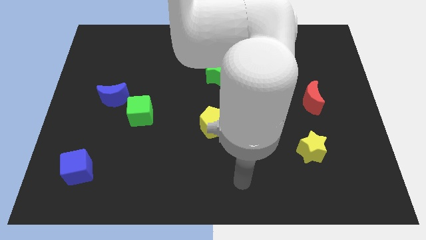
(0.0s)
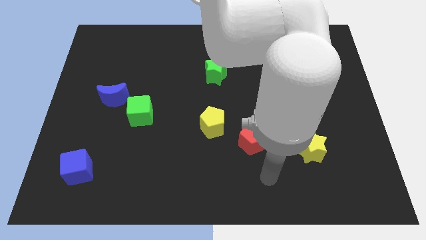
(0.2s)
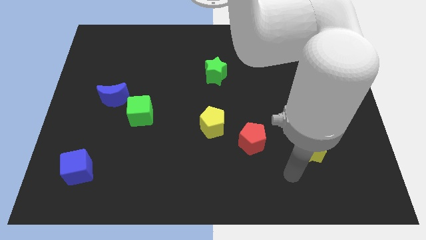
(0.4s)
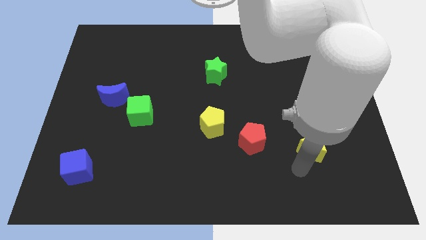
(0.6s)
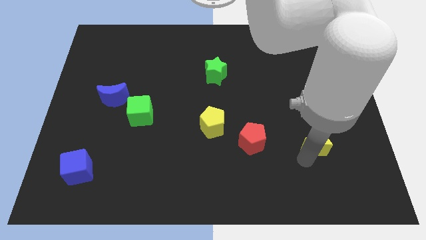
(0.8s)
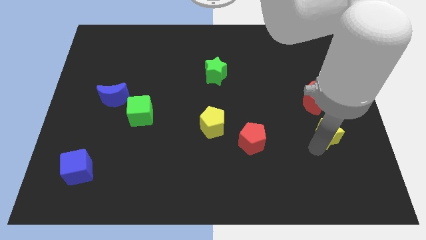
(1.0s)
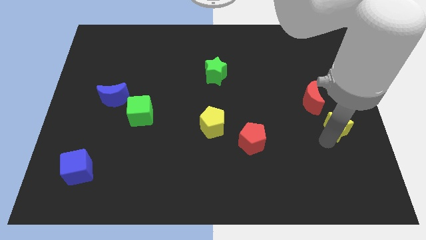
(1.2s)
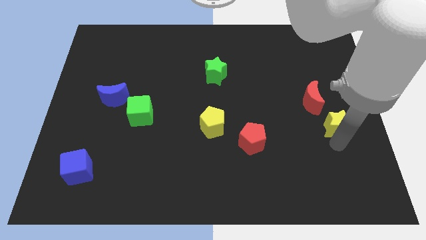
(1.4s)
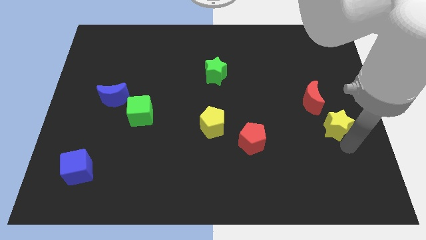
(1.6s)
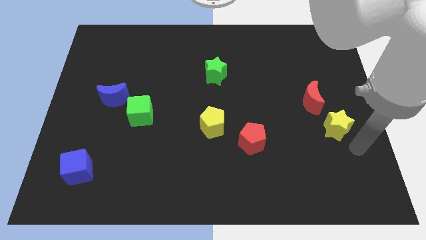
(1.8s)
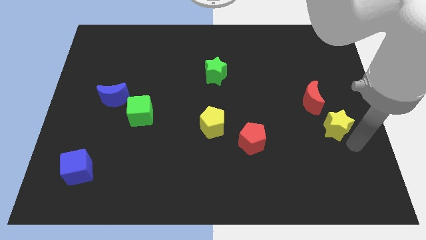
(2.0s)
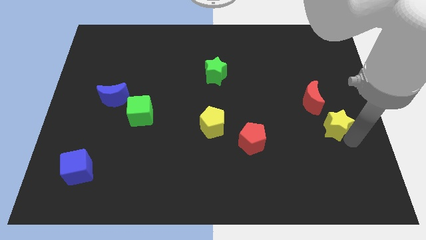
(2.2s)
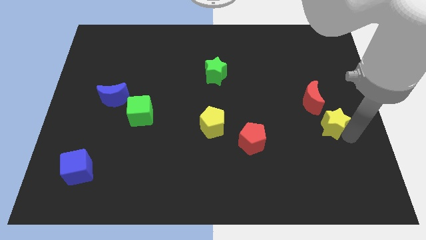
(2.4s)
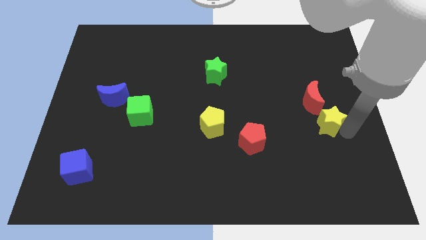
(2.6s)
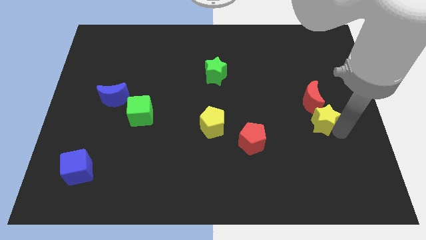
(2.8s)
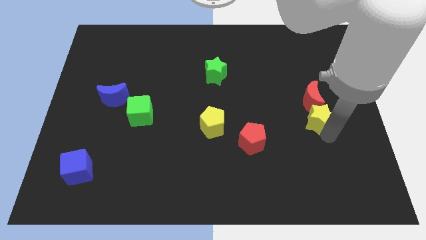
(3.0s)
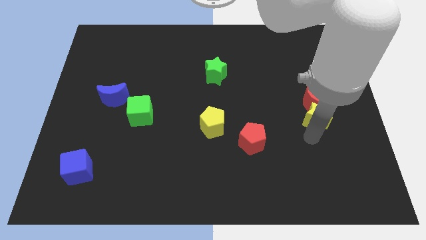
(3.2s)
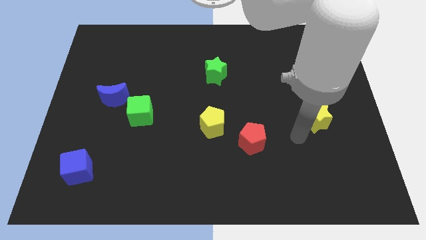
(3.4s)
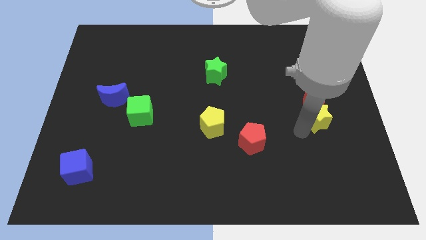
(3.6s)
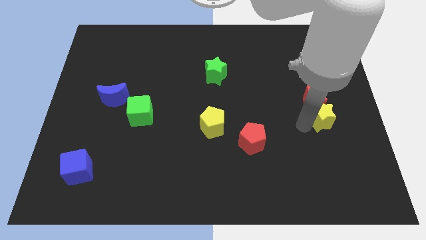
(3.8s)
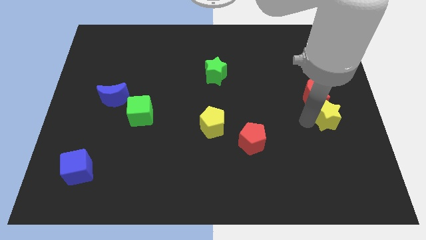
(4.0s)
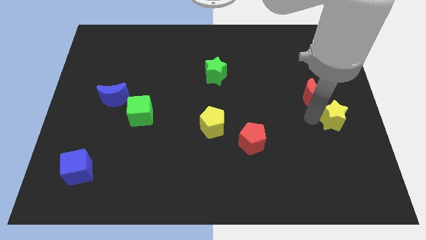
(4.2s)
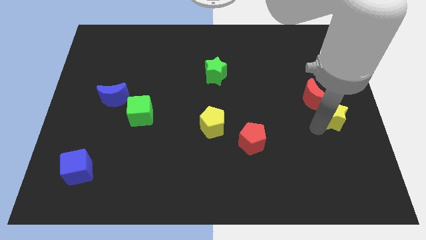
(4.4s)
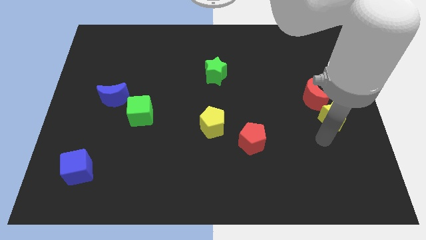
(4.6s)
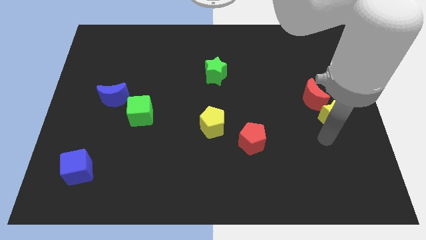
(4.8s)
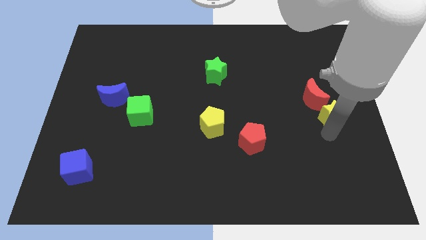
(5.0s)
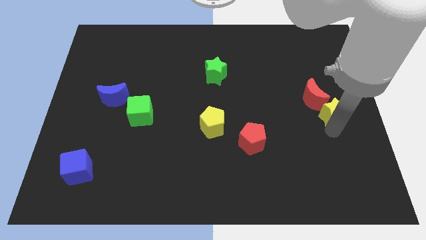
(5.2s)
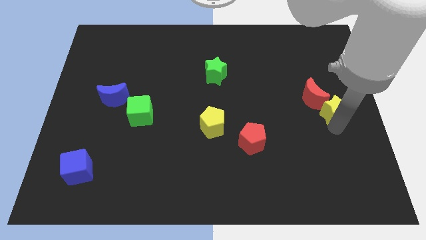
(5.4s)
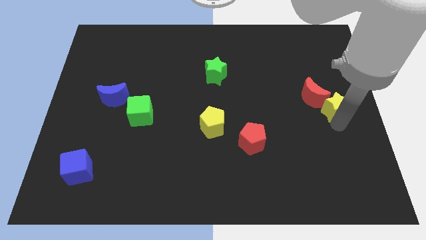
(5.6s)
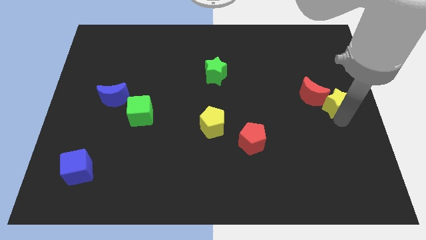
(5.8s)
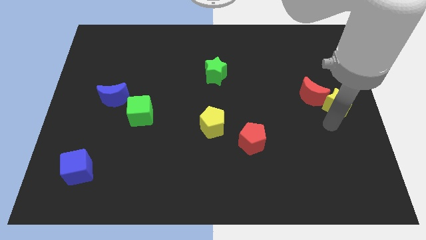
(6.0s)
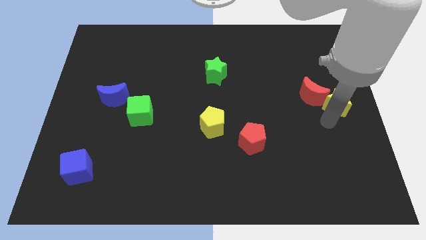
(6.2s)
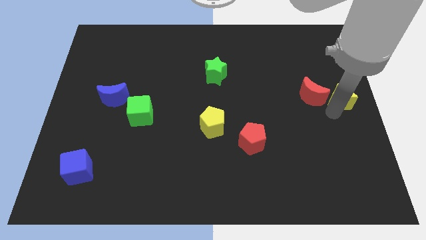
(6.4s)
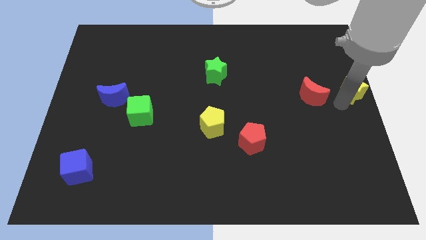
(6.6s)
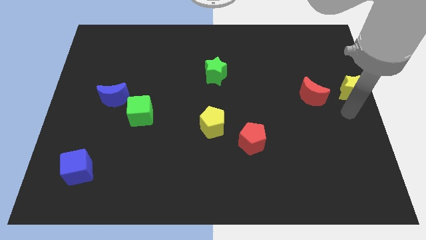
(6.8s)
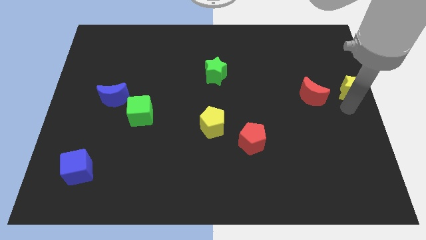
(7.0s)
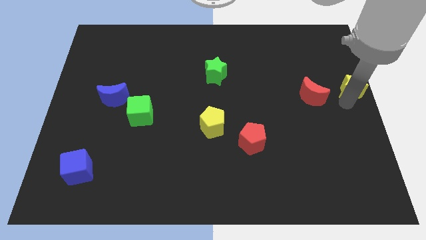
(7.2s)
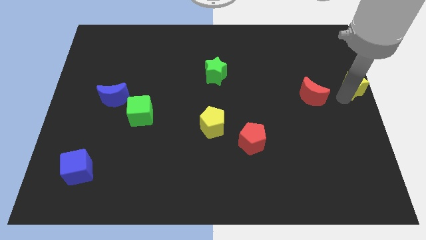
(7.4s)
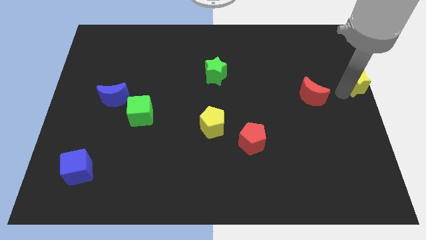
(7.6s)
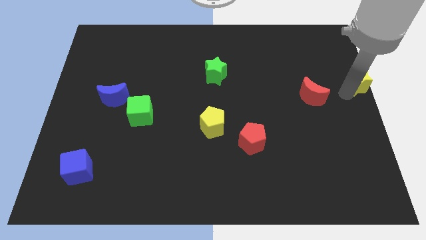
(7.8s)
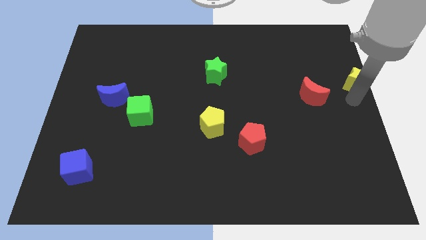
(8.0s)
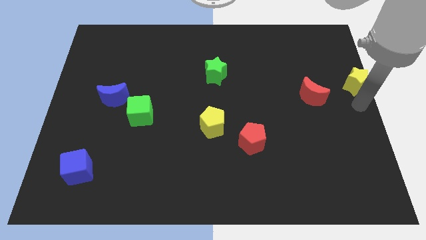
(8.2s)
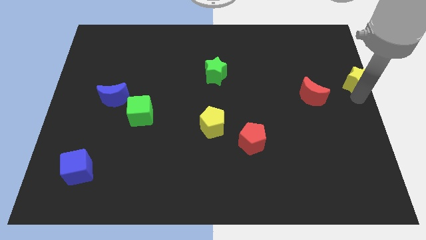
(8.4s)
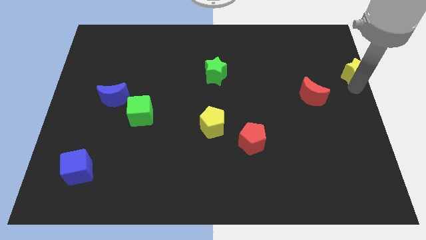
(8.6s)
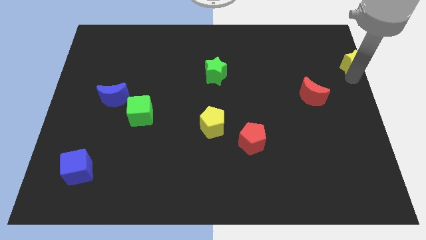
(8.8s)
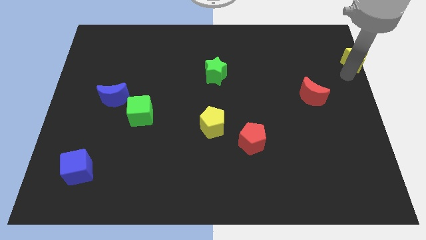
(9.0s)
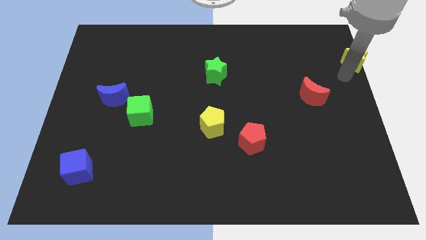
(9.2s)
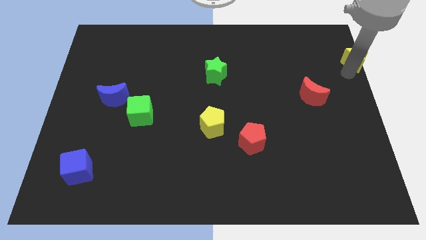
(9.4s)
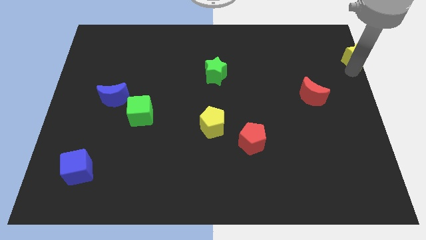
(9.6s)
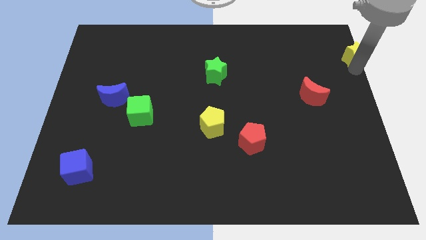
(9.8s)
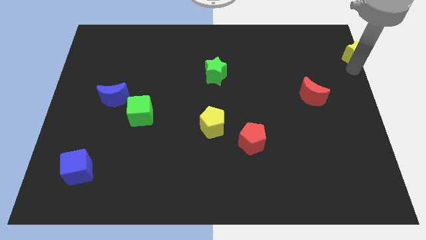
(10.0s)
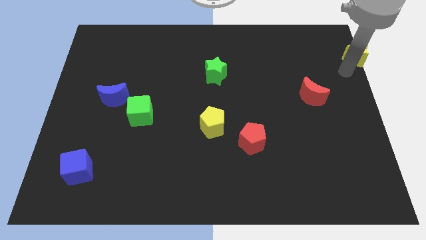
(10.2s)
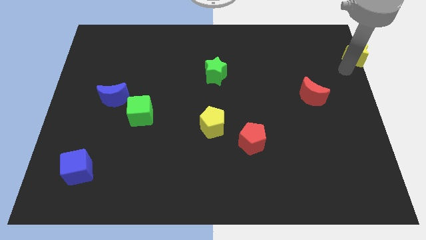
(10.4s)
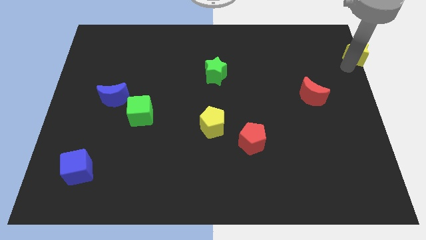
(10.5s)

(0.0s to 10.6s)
push the yellow star to the upper right corner

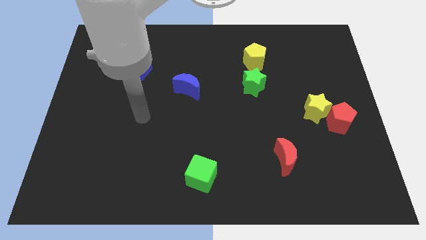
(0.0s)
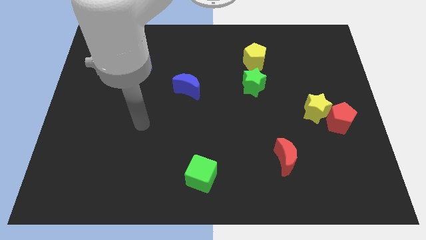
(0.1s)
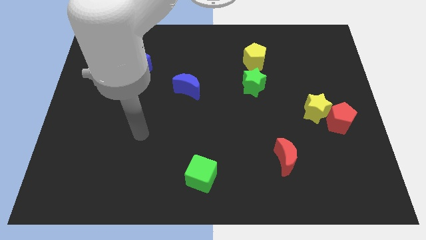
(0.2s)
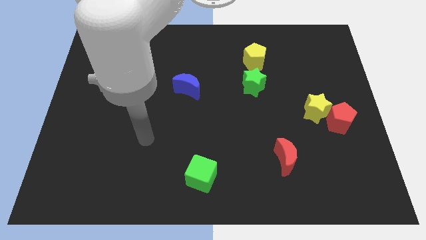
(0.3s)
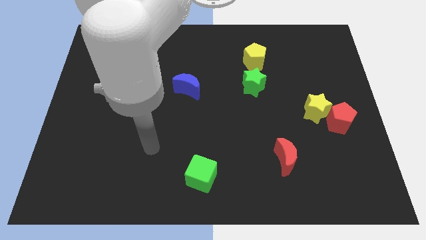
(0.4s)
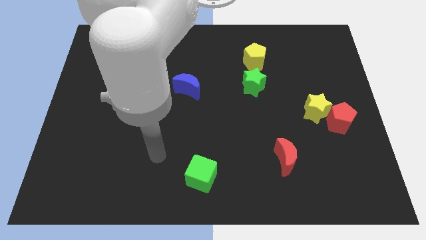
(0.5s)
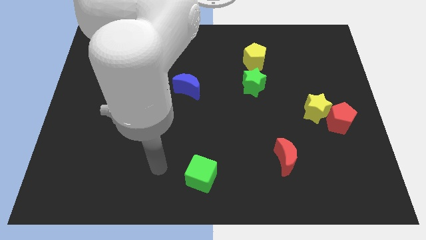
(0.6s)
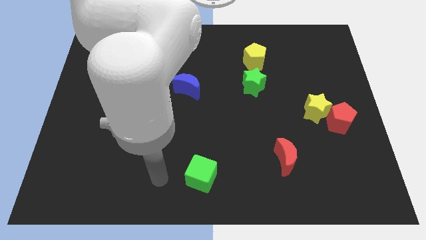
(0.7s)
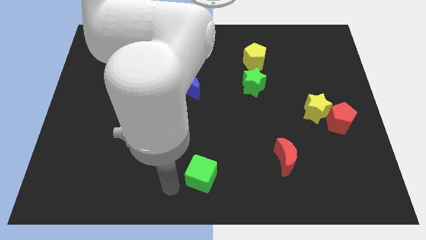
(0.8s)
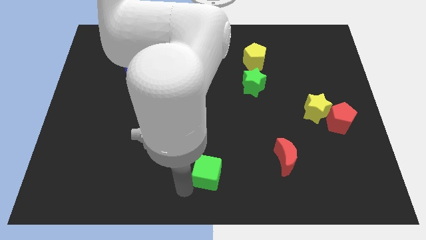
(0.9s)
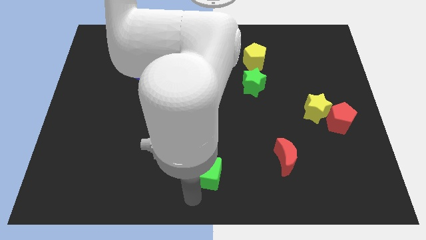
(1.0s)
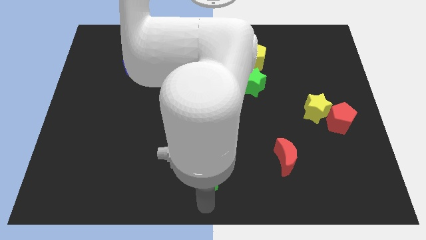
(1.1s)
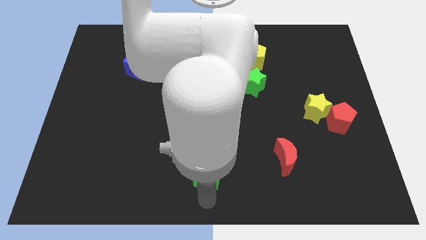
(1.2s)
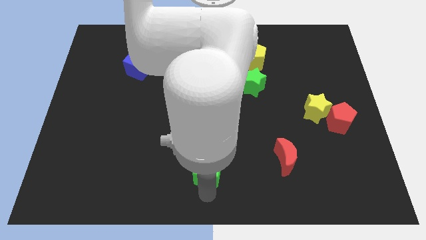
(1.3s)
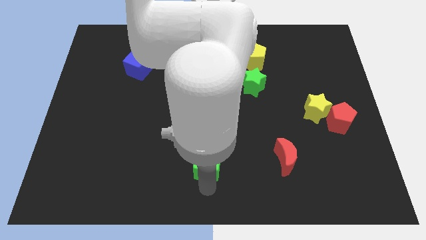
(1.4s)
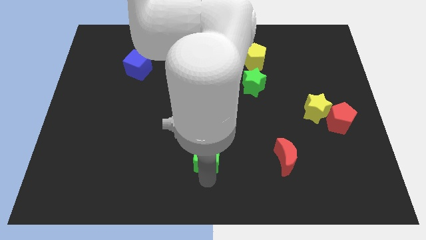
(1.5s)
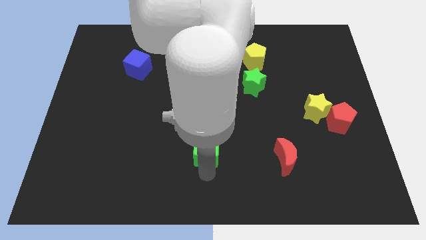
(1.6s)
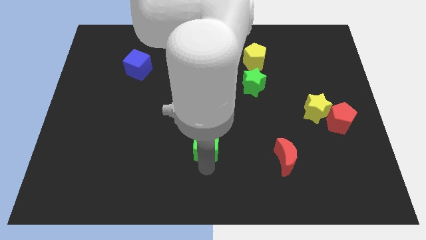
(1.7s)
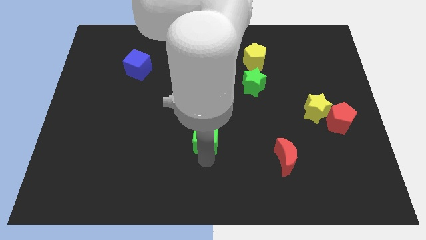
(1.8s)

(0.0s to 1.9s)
put the green cube to the center of the board

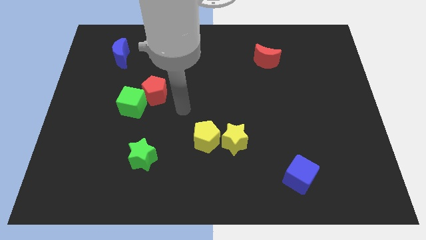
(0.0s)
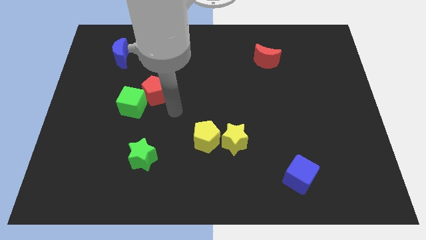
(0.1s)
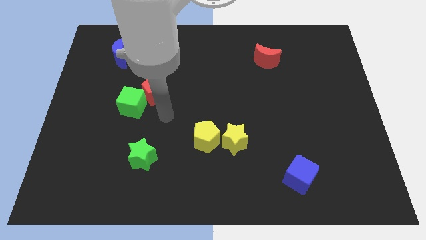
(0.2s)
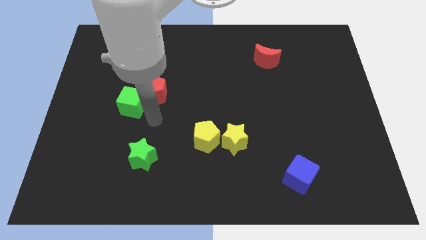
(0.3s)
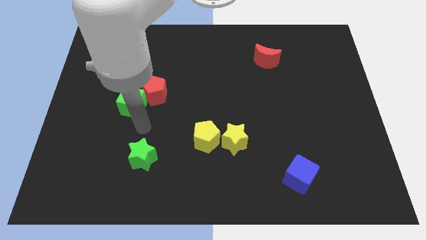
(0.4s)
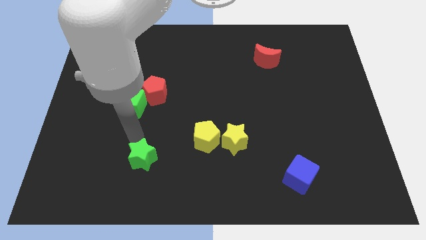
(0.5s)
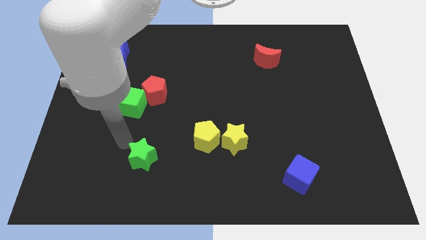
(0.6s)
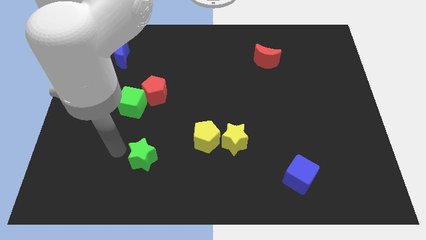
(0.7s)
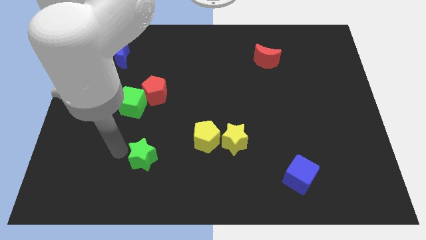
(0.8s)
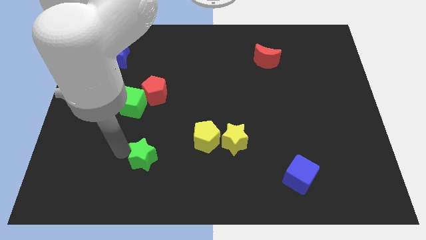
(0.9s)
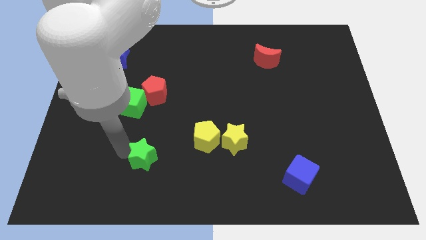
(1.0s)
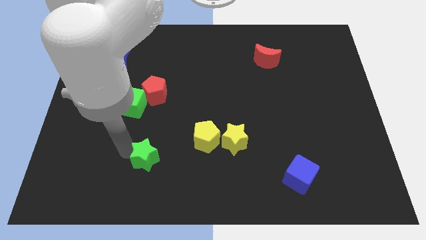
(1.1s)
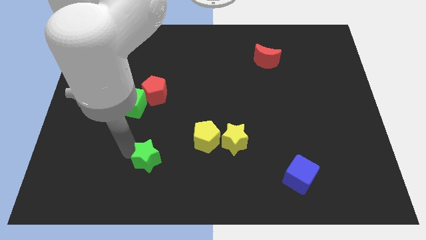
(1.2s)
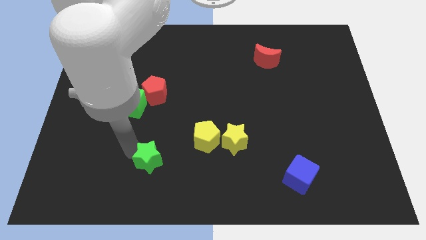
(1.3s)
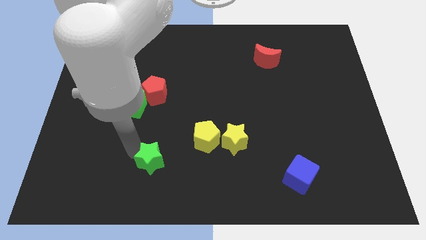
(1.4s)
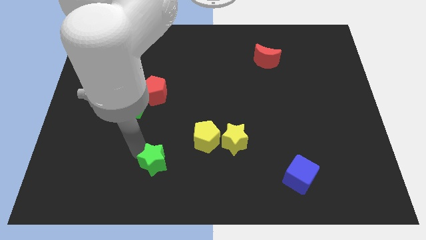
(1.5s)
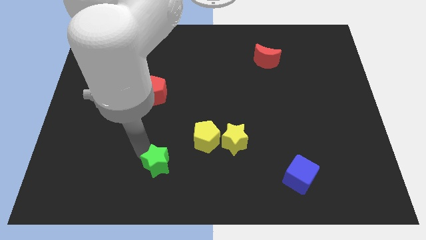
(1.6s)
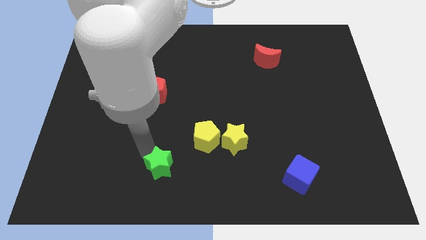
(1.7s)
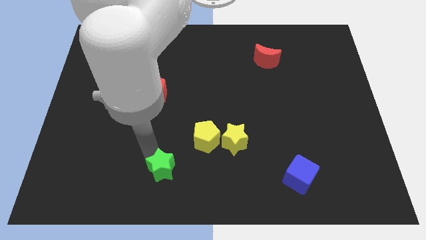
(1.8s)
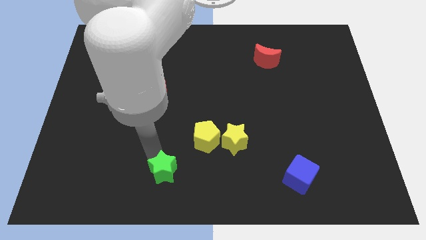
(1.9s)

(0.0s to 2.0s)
move the green star to the bottom
